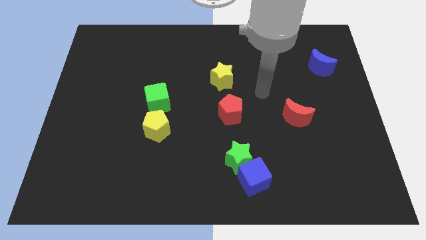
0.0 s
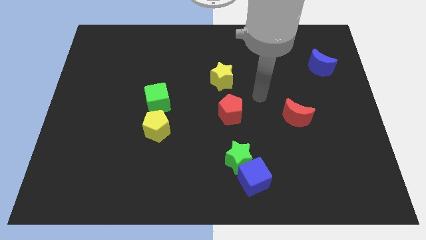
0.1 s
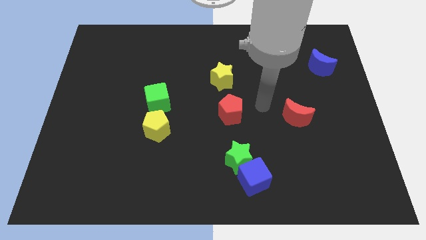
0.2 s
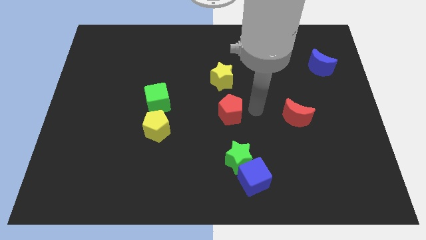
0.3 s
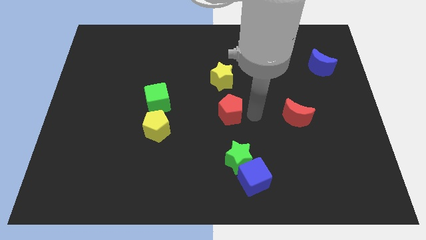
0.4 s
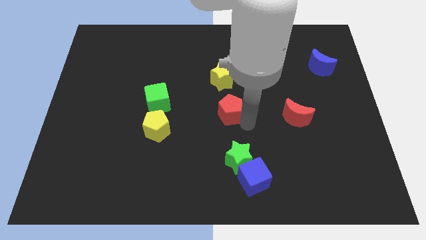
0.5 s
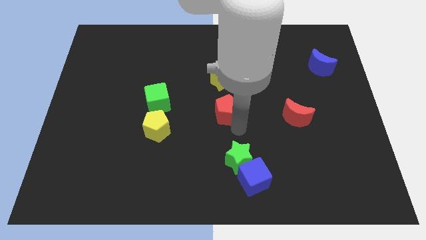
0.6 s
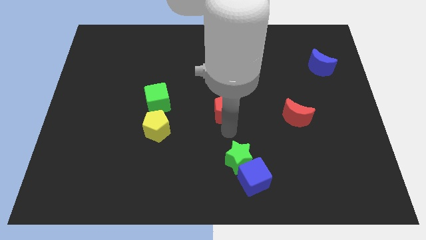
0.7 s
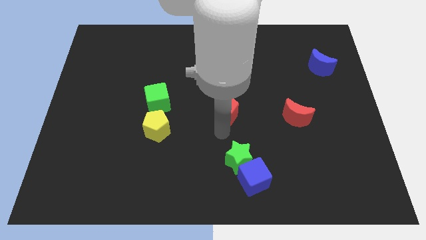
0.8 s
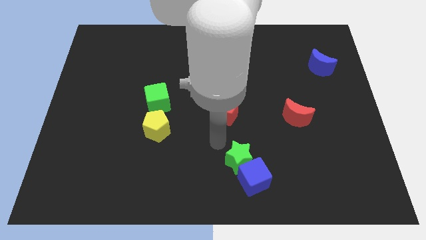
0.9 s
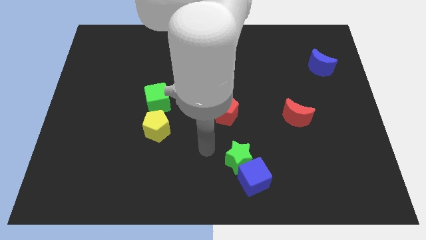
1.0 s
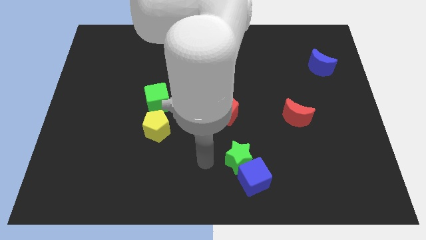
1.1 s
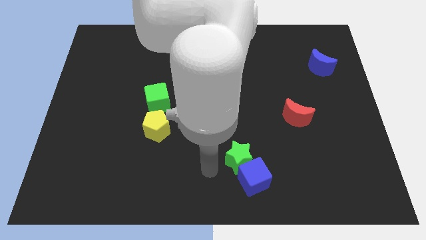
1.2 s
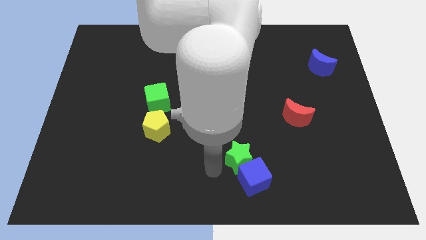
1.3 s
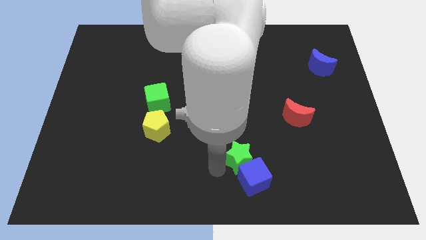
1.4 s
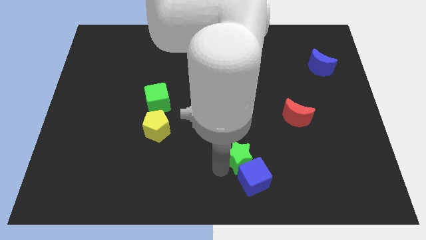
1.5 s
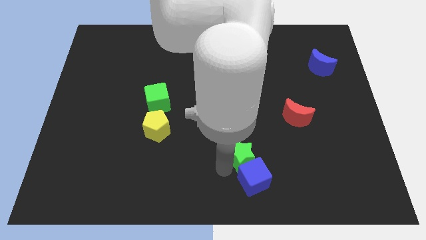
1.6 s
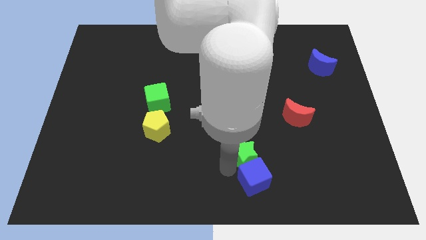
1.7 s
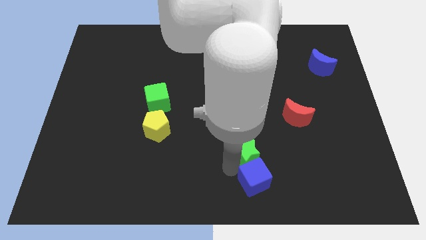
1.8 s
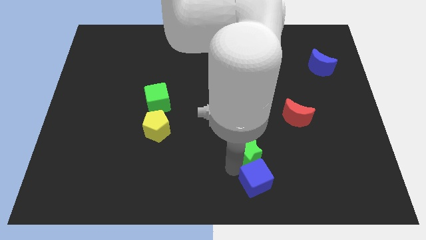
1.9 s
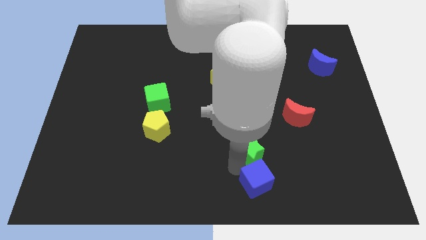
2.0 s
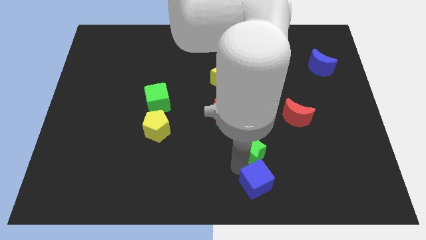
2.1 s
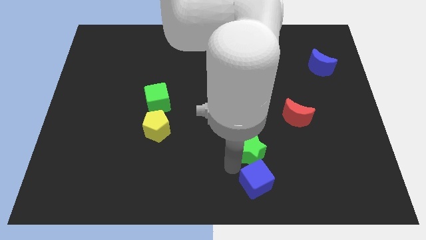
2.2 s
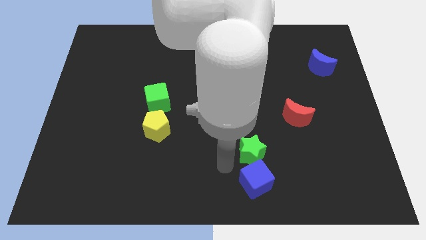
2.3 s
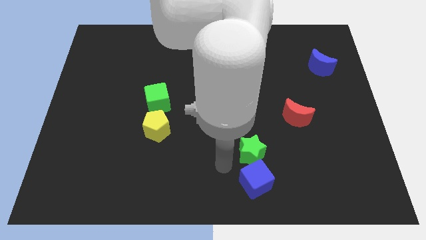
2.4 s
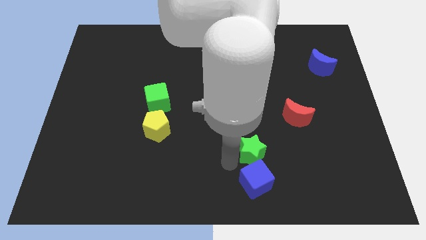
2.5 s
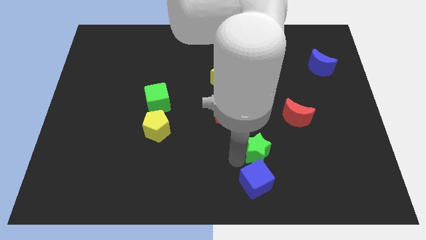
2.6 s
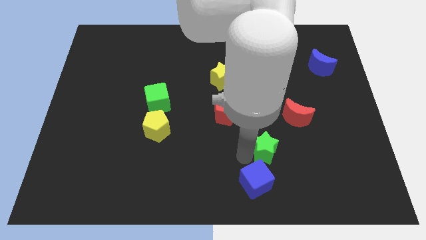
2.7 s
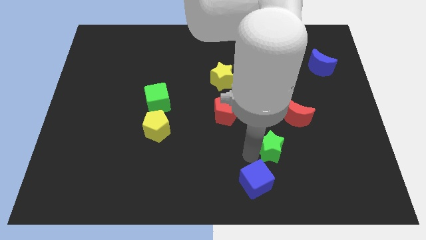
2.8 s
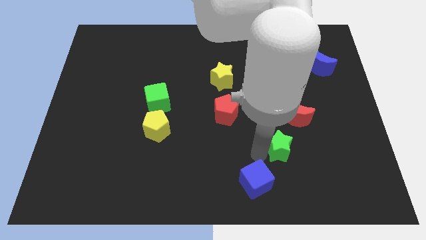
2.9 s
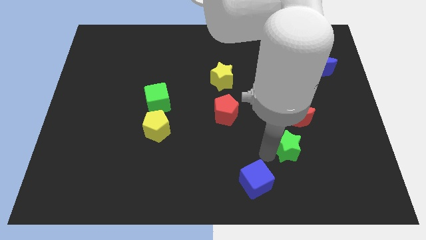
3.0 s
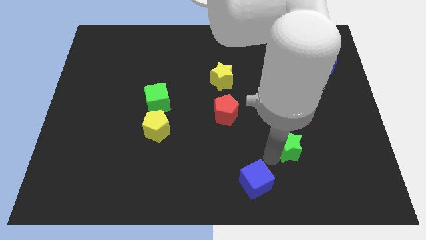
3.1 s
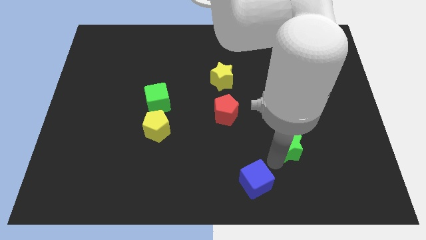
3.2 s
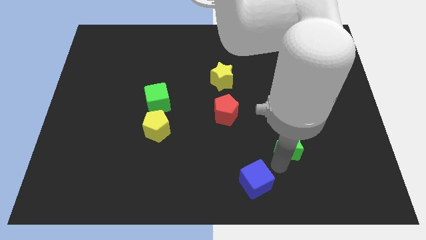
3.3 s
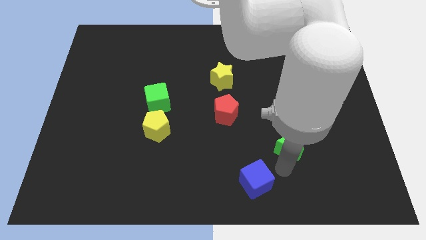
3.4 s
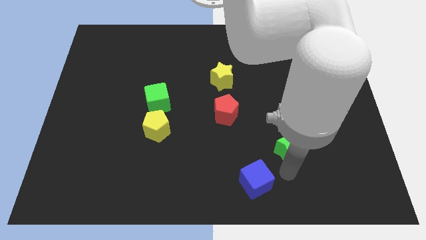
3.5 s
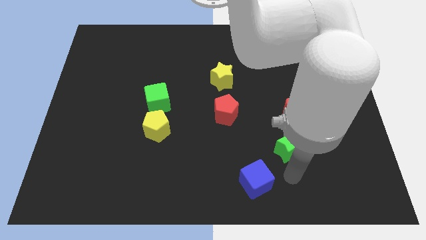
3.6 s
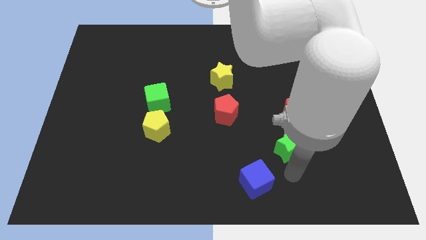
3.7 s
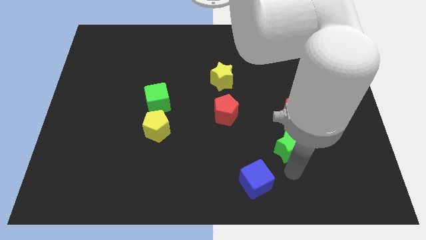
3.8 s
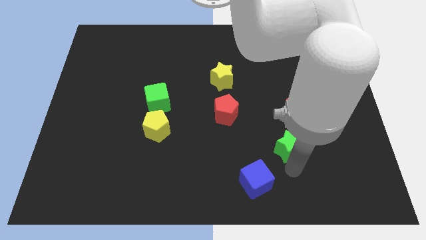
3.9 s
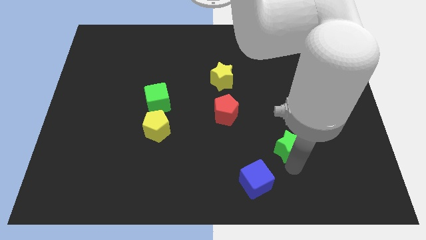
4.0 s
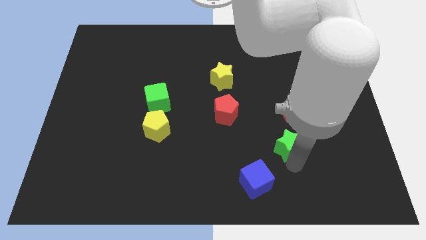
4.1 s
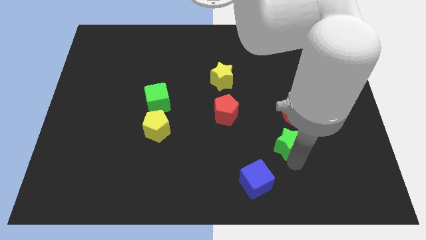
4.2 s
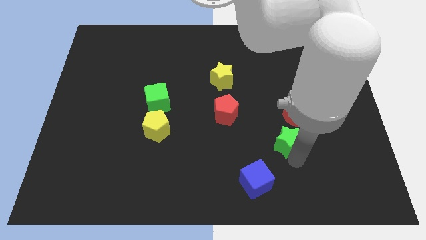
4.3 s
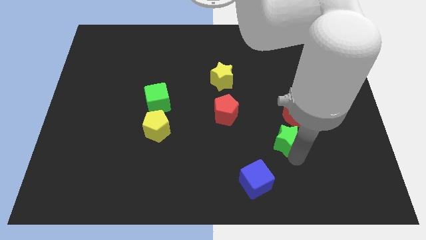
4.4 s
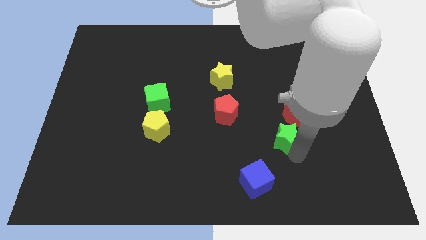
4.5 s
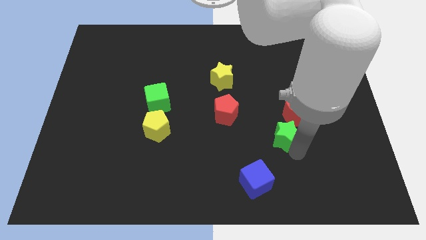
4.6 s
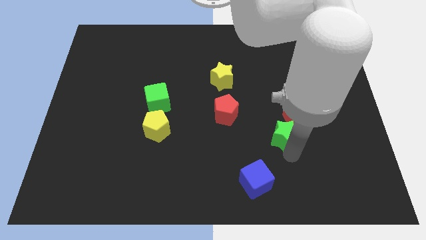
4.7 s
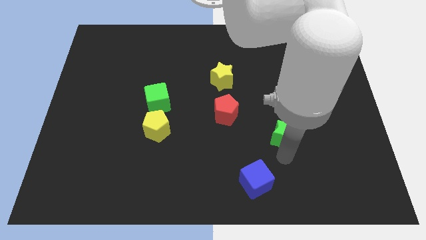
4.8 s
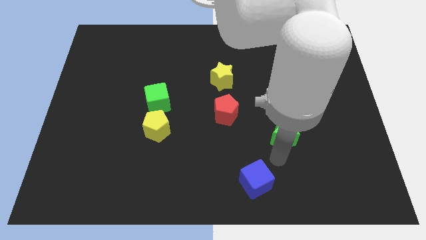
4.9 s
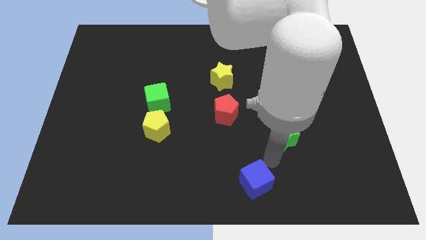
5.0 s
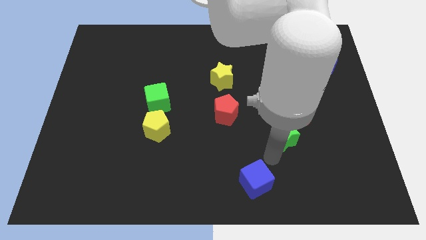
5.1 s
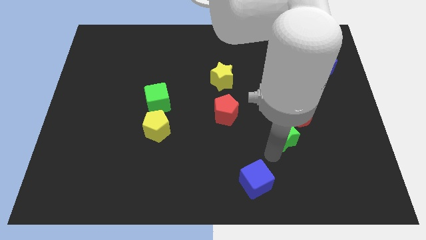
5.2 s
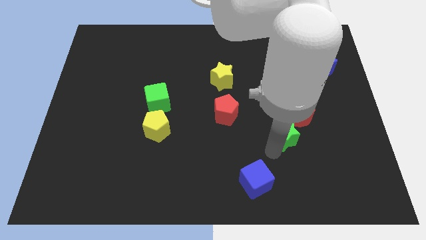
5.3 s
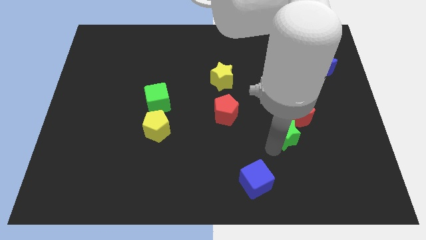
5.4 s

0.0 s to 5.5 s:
put the green star towards the red moon

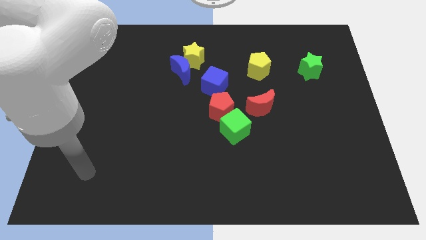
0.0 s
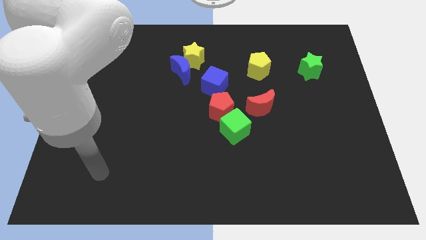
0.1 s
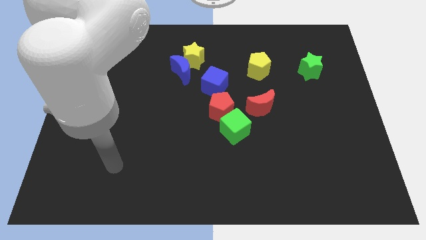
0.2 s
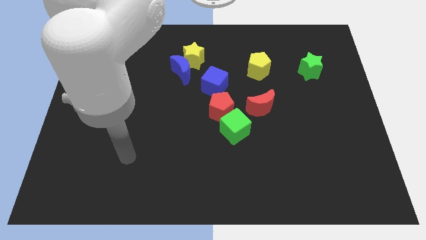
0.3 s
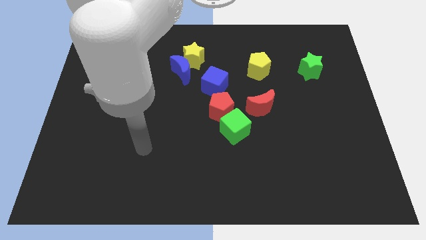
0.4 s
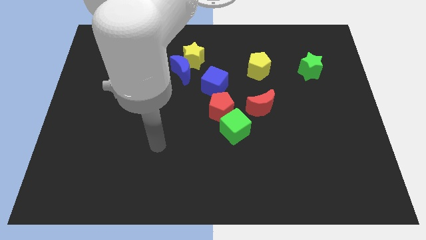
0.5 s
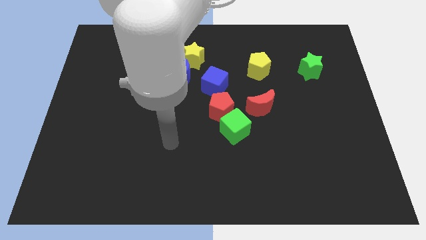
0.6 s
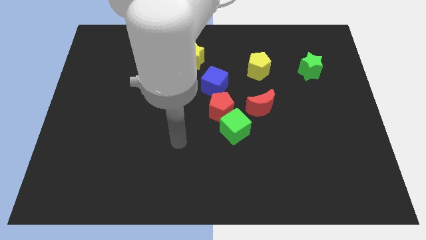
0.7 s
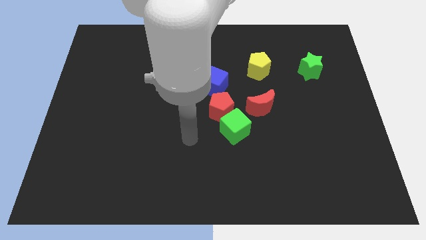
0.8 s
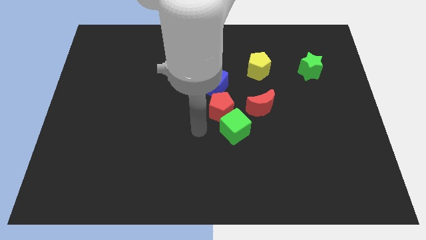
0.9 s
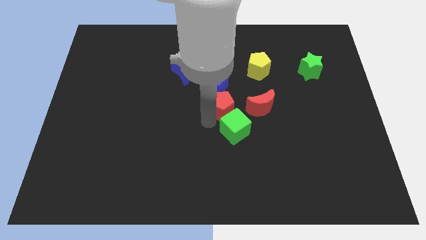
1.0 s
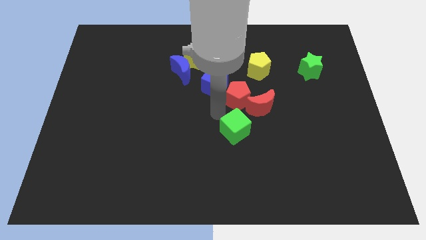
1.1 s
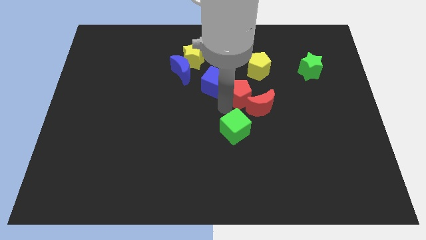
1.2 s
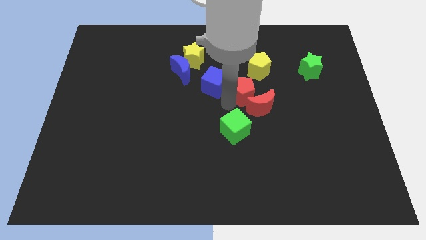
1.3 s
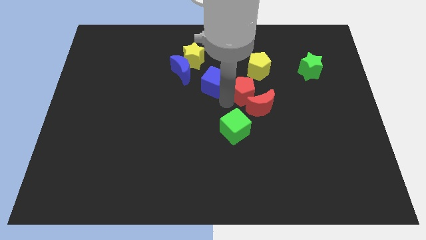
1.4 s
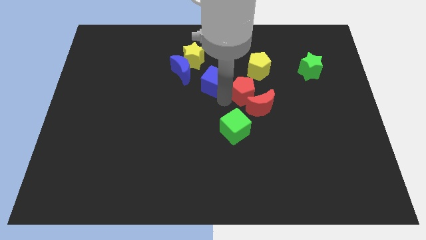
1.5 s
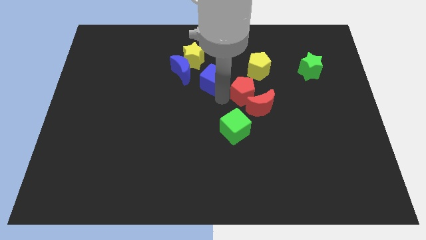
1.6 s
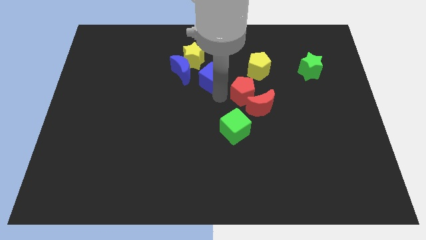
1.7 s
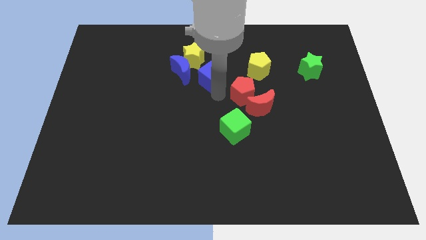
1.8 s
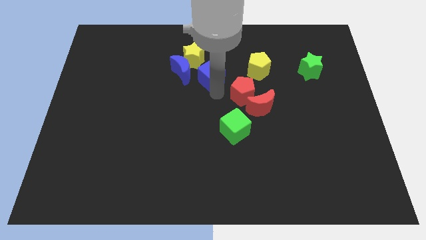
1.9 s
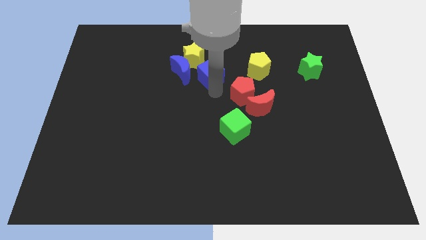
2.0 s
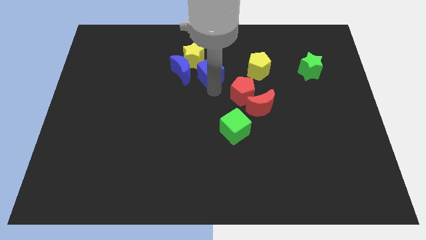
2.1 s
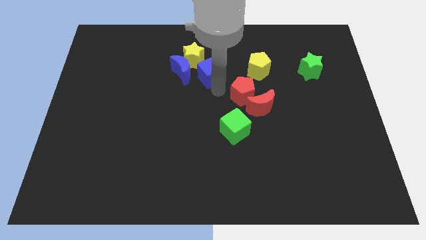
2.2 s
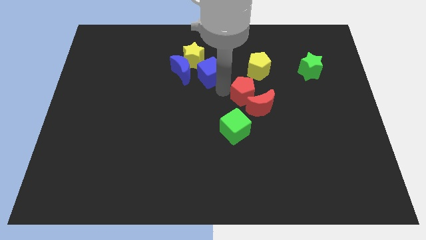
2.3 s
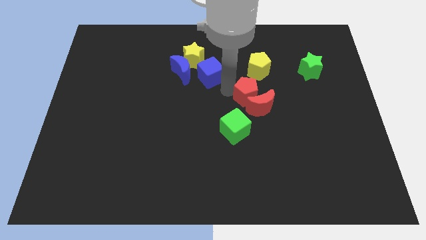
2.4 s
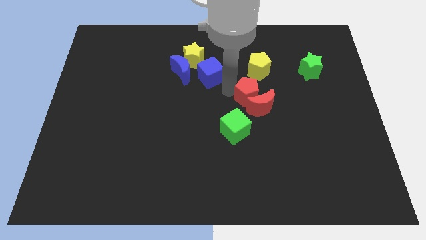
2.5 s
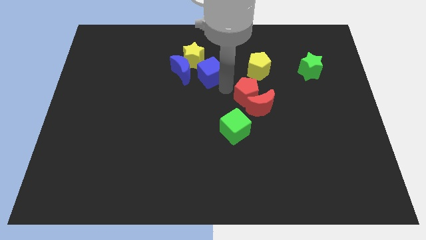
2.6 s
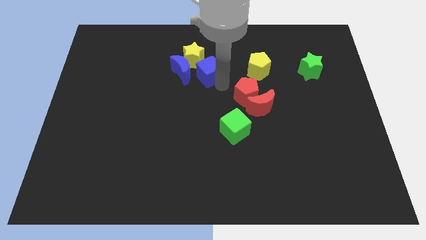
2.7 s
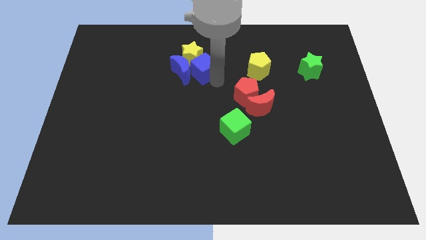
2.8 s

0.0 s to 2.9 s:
slide the blue cube towards the yellow star
